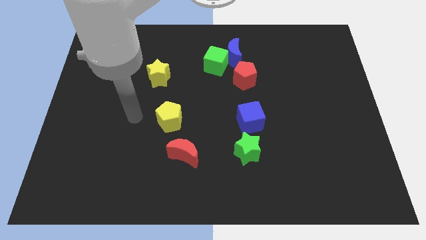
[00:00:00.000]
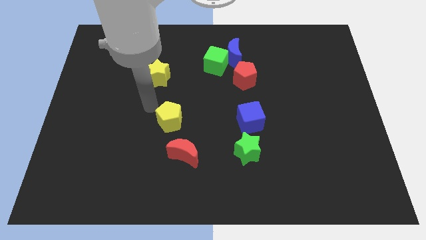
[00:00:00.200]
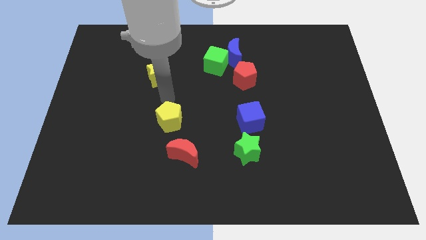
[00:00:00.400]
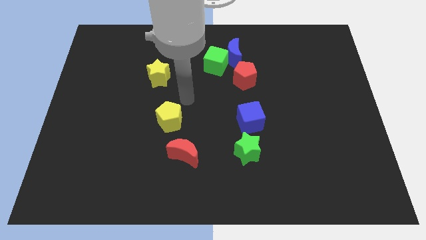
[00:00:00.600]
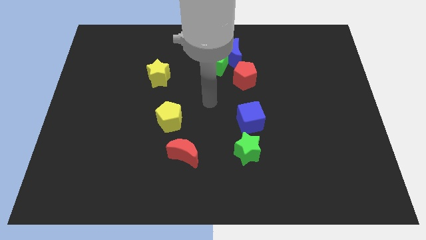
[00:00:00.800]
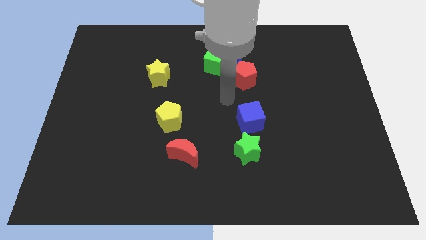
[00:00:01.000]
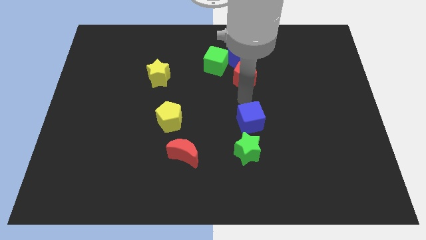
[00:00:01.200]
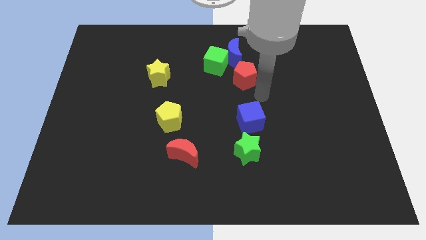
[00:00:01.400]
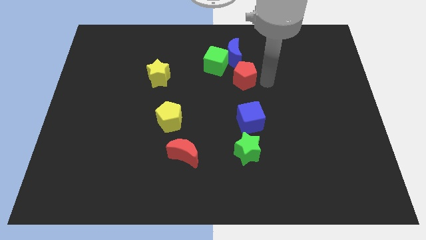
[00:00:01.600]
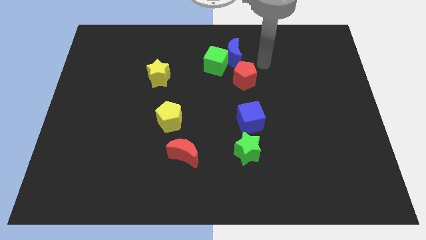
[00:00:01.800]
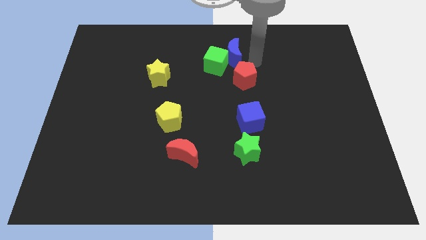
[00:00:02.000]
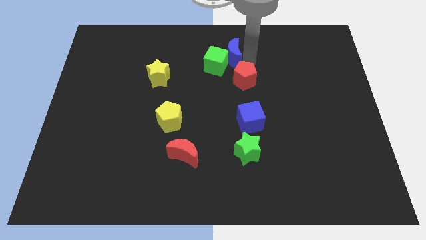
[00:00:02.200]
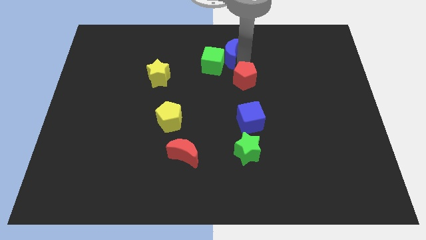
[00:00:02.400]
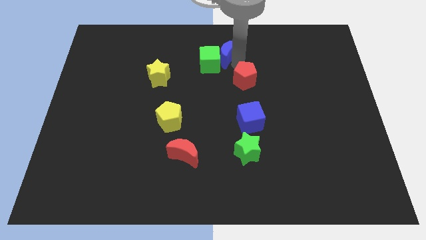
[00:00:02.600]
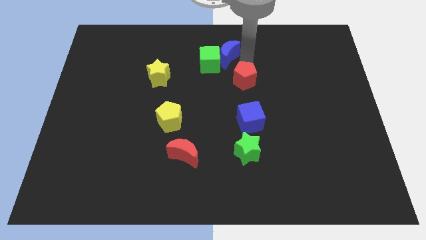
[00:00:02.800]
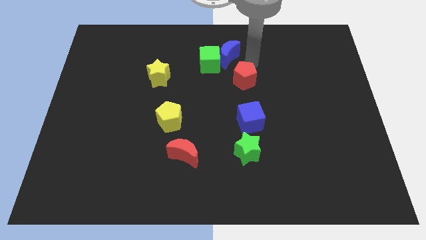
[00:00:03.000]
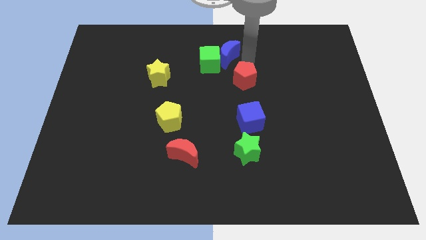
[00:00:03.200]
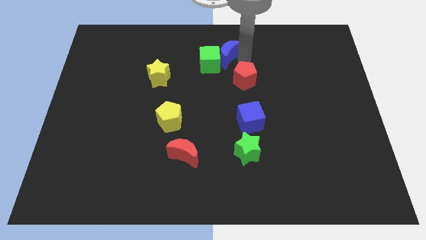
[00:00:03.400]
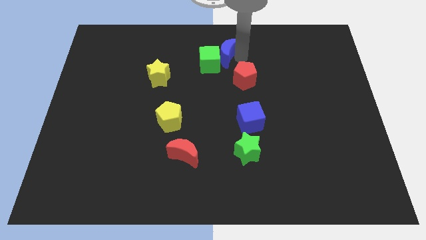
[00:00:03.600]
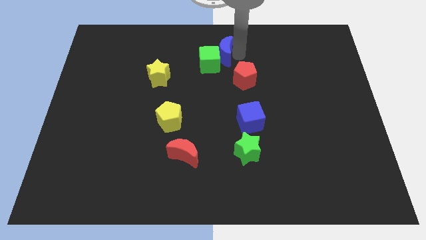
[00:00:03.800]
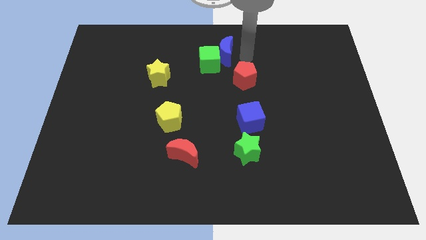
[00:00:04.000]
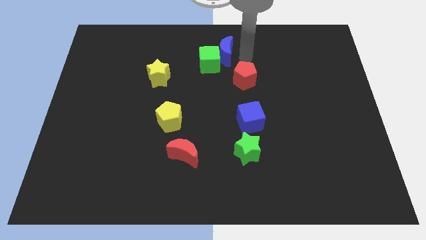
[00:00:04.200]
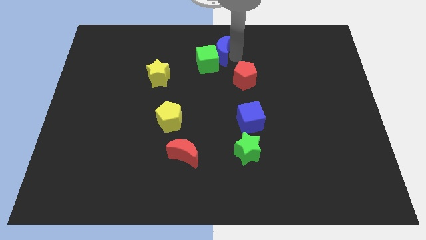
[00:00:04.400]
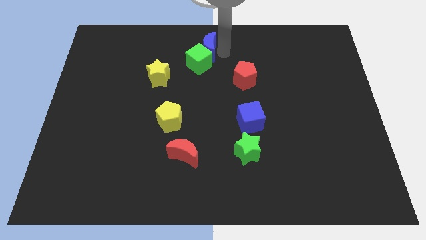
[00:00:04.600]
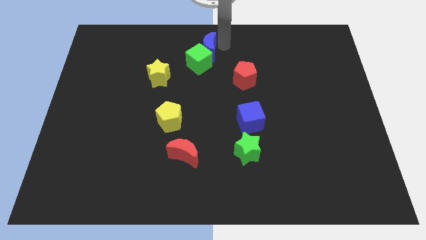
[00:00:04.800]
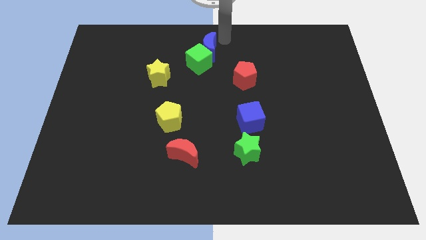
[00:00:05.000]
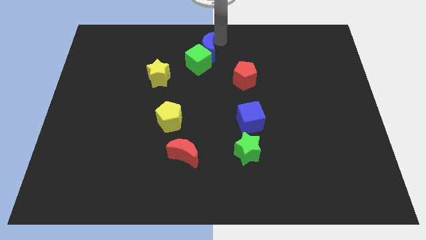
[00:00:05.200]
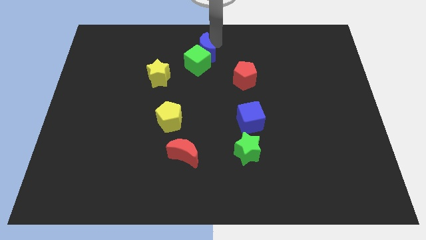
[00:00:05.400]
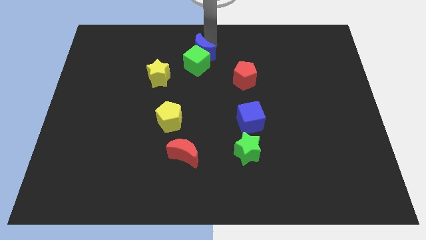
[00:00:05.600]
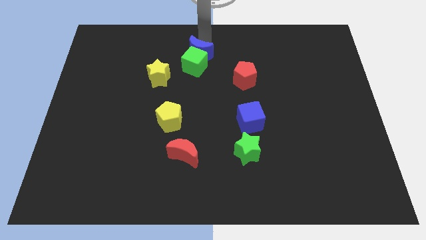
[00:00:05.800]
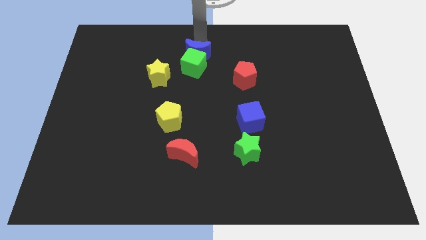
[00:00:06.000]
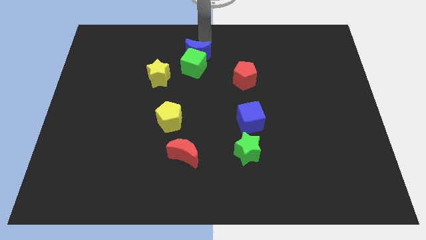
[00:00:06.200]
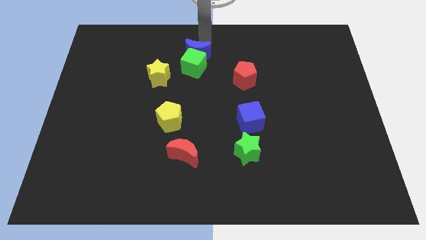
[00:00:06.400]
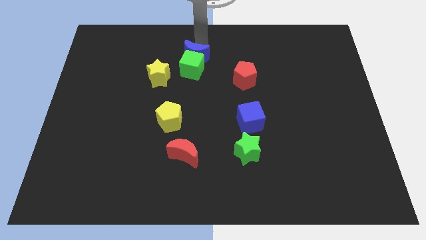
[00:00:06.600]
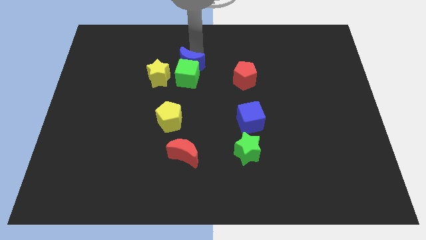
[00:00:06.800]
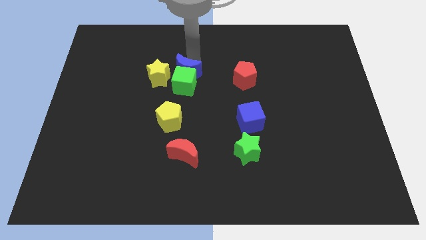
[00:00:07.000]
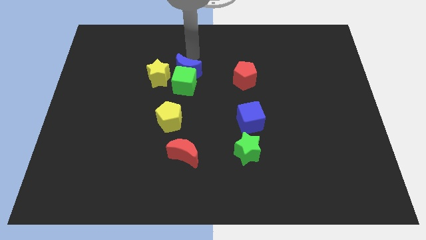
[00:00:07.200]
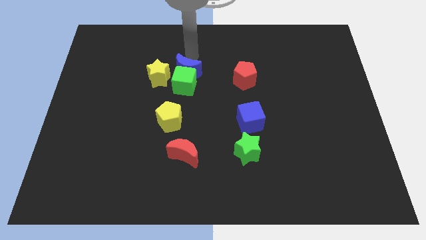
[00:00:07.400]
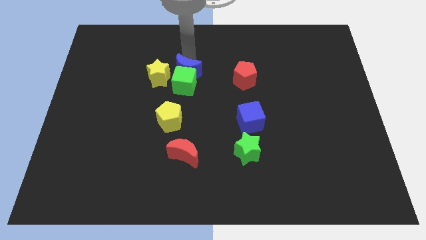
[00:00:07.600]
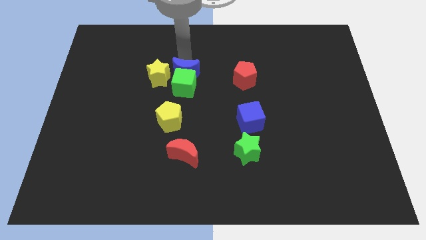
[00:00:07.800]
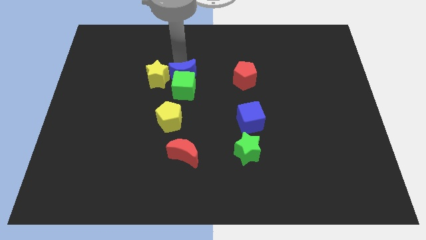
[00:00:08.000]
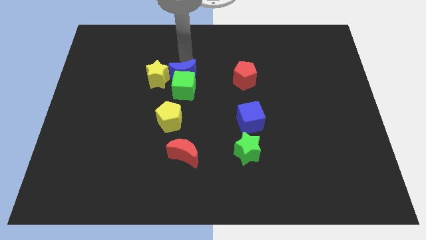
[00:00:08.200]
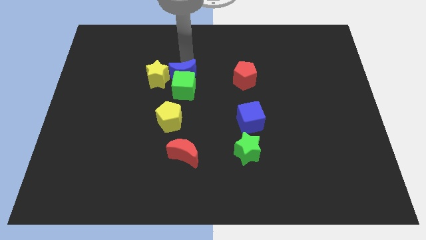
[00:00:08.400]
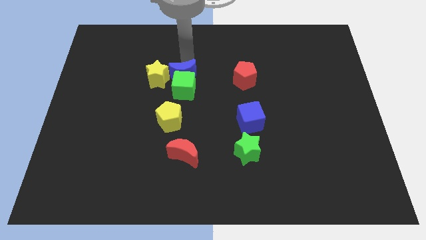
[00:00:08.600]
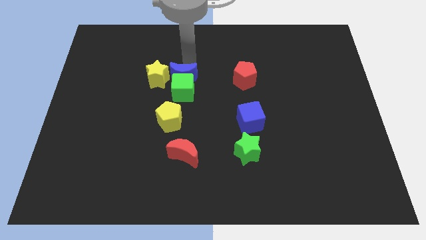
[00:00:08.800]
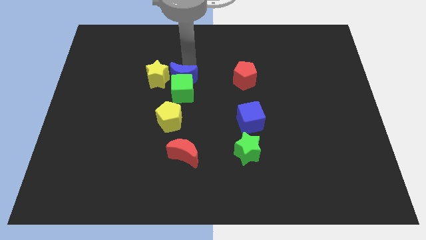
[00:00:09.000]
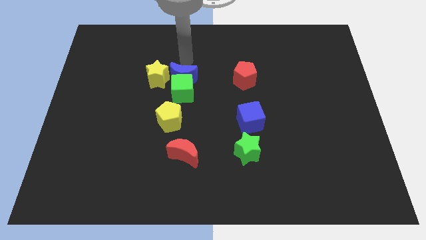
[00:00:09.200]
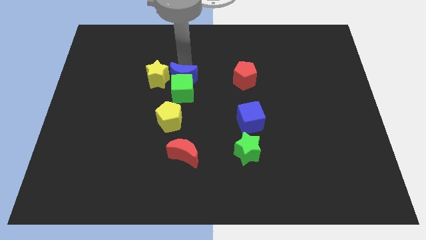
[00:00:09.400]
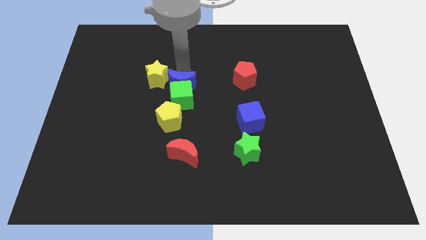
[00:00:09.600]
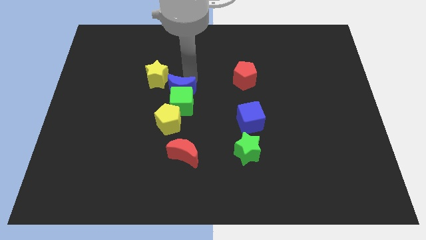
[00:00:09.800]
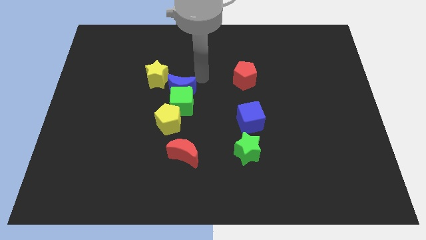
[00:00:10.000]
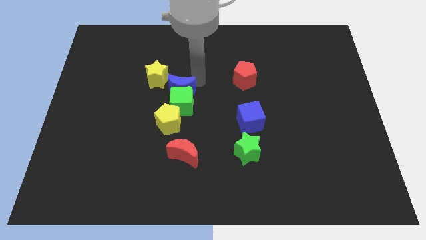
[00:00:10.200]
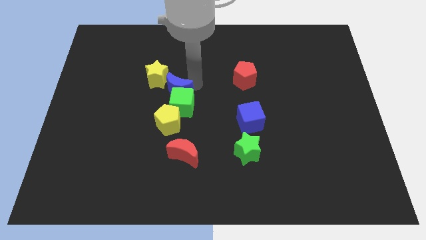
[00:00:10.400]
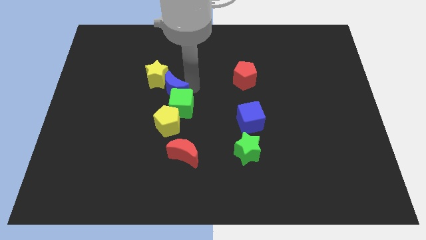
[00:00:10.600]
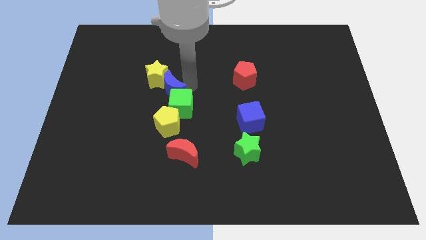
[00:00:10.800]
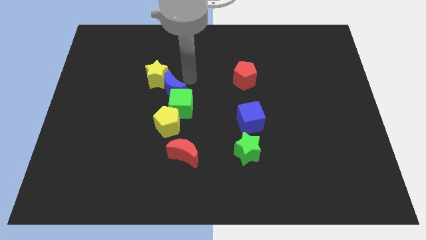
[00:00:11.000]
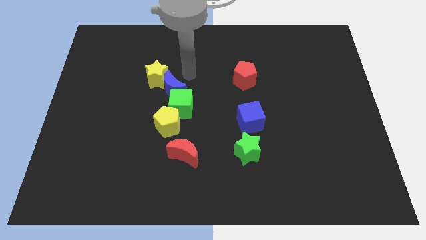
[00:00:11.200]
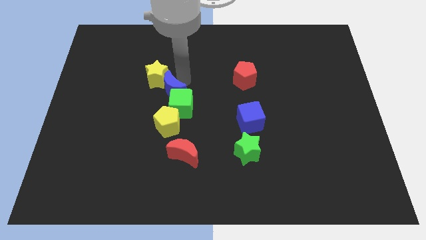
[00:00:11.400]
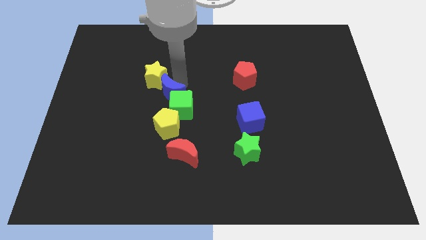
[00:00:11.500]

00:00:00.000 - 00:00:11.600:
slide the blue moon diagonally downwards and left

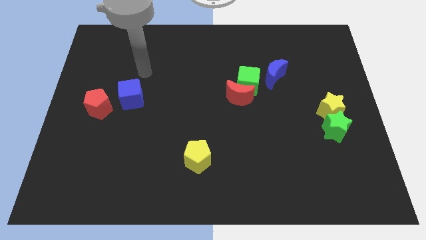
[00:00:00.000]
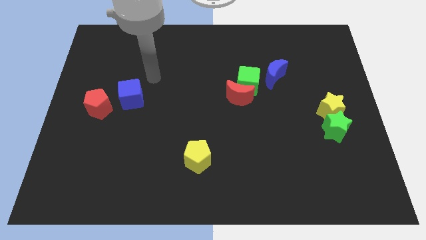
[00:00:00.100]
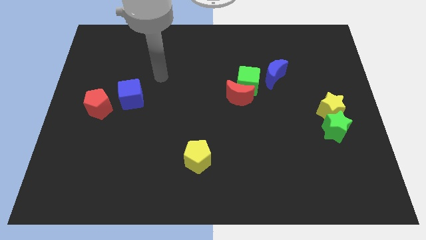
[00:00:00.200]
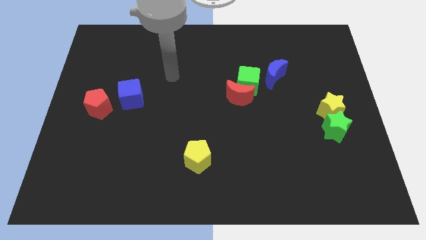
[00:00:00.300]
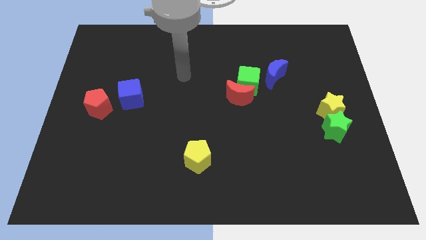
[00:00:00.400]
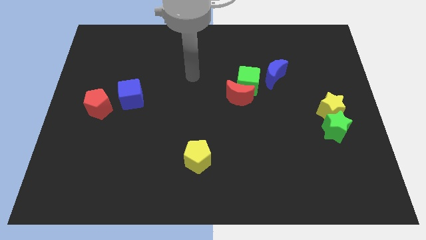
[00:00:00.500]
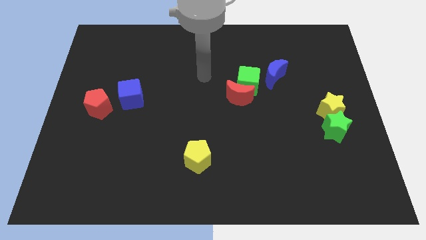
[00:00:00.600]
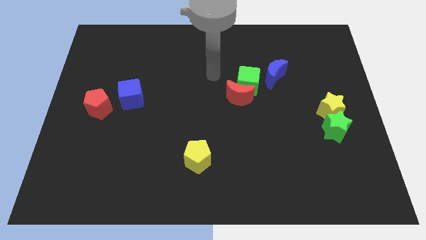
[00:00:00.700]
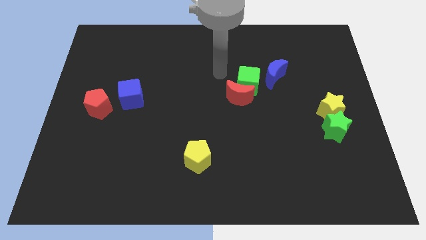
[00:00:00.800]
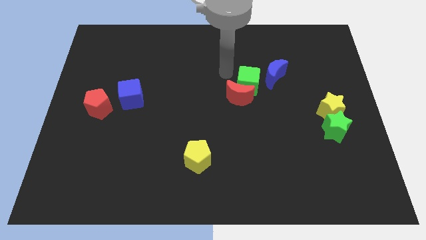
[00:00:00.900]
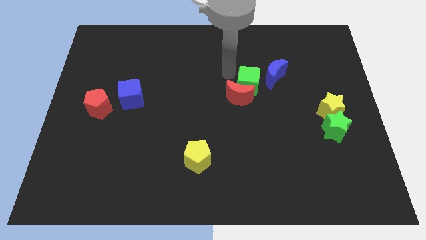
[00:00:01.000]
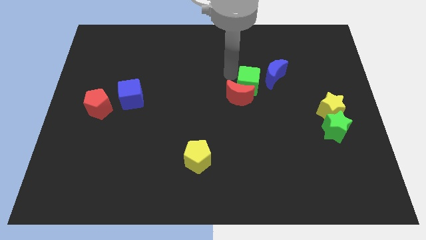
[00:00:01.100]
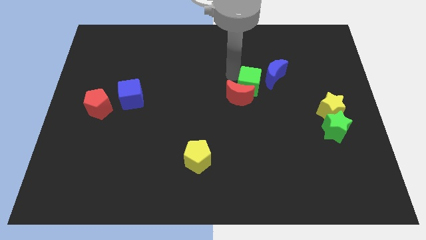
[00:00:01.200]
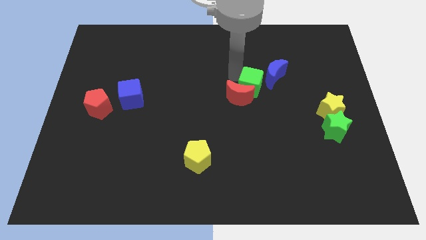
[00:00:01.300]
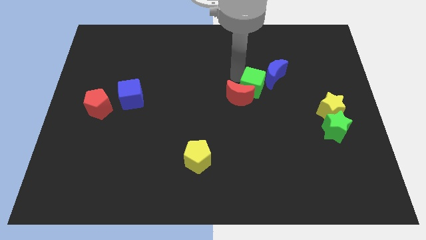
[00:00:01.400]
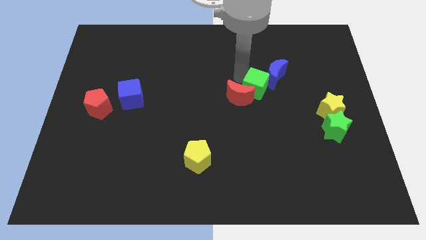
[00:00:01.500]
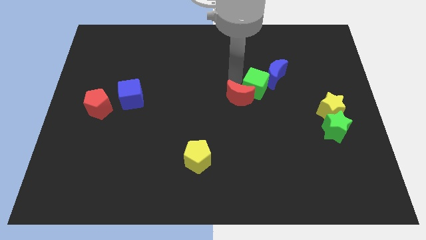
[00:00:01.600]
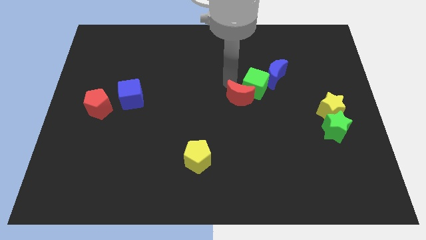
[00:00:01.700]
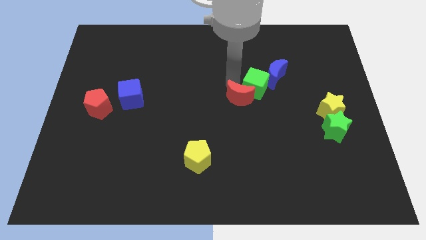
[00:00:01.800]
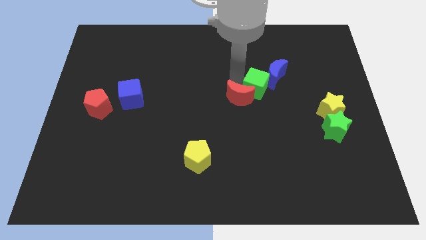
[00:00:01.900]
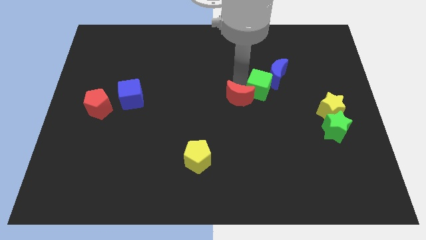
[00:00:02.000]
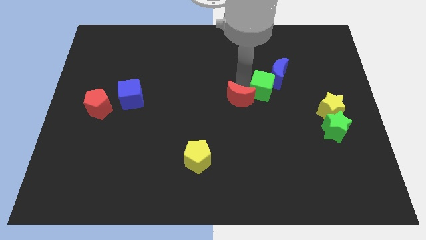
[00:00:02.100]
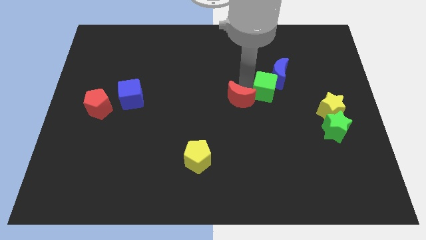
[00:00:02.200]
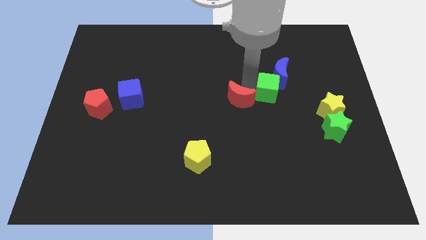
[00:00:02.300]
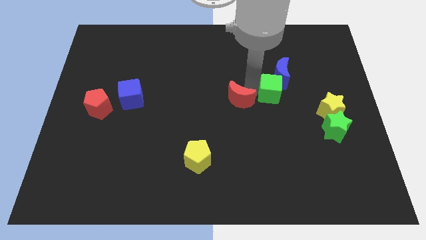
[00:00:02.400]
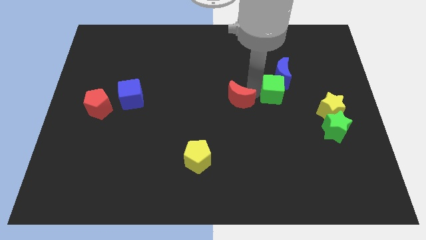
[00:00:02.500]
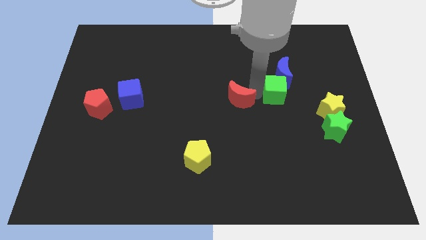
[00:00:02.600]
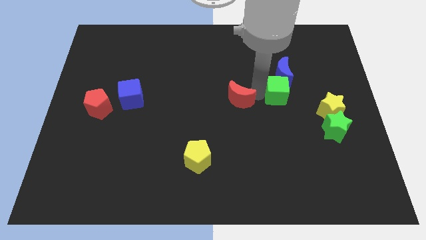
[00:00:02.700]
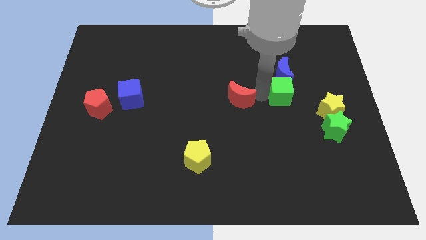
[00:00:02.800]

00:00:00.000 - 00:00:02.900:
push the green cube to the right somewhat
